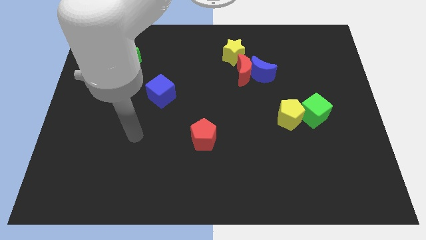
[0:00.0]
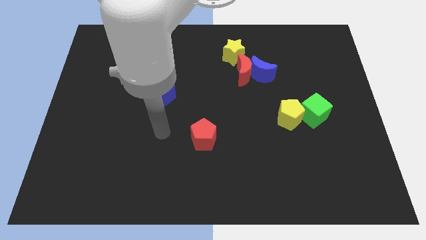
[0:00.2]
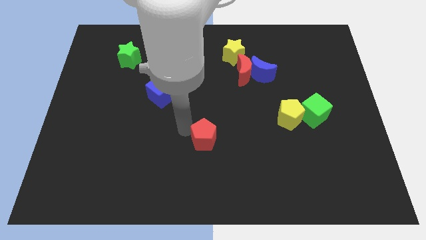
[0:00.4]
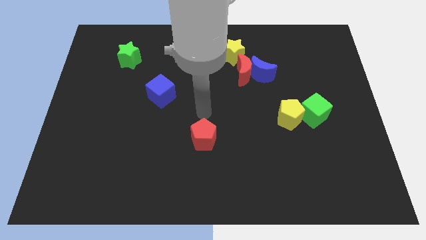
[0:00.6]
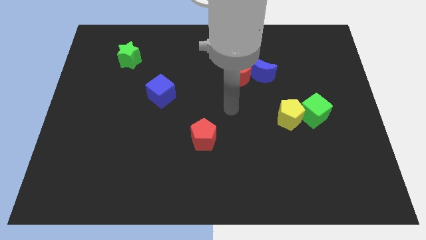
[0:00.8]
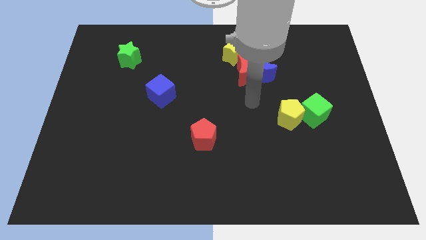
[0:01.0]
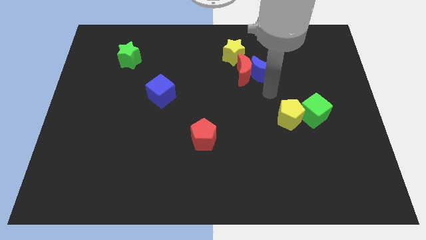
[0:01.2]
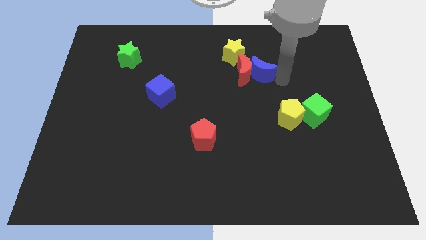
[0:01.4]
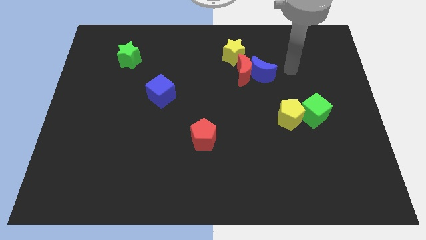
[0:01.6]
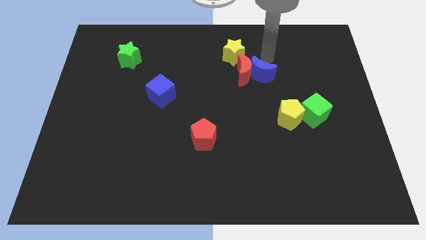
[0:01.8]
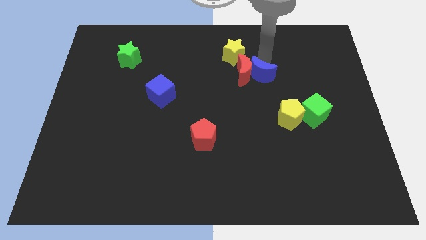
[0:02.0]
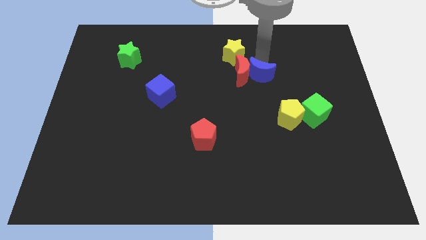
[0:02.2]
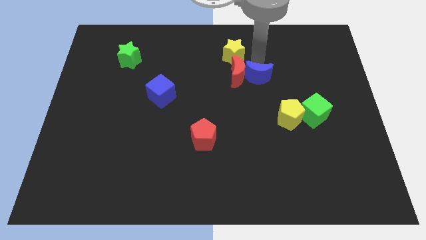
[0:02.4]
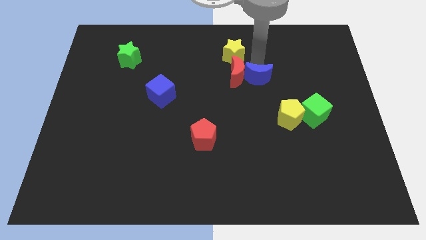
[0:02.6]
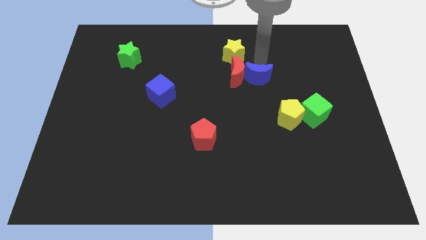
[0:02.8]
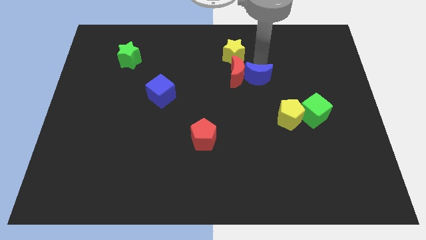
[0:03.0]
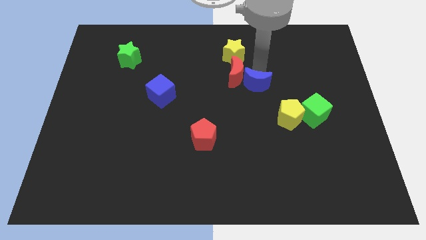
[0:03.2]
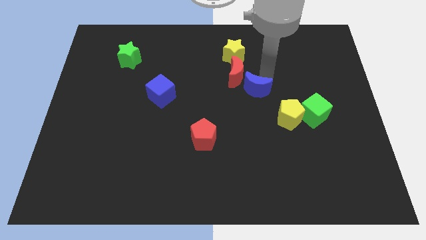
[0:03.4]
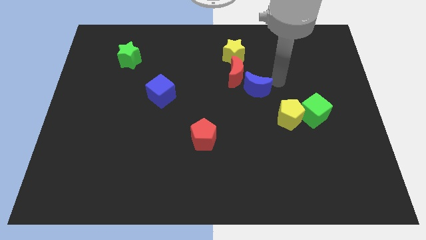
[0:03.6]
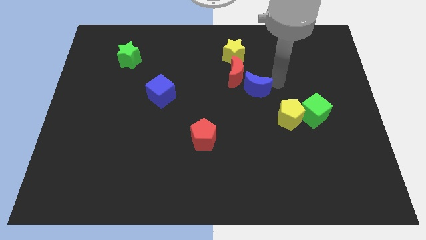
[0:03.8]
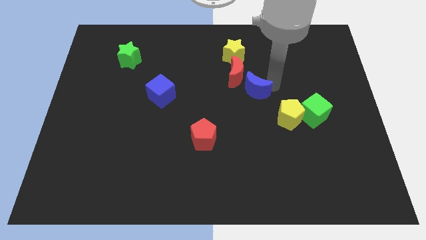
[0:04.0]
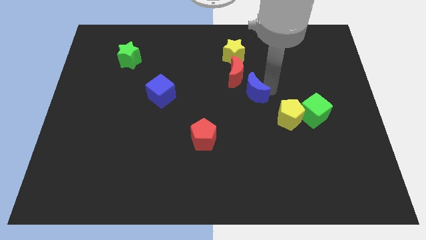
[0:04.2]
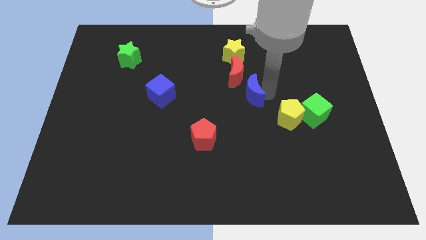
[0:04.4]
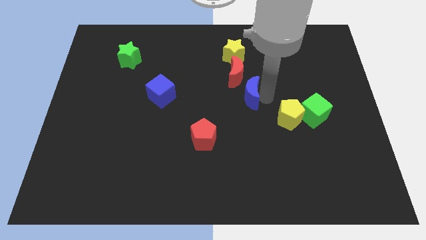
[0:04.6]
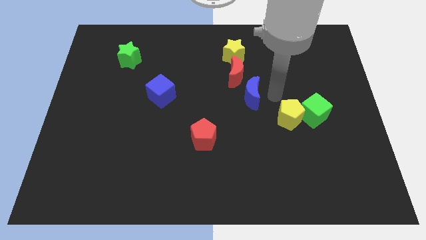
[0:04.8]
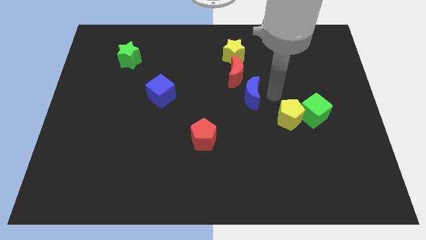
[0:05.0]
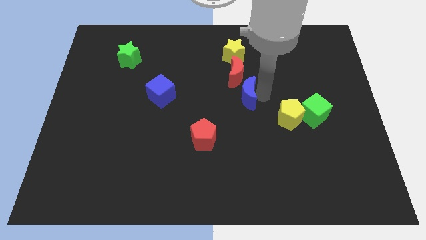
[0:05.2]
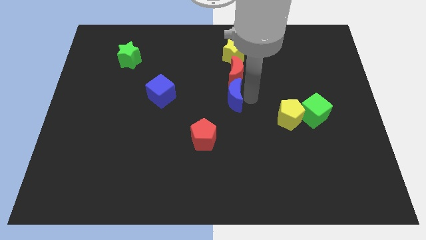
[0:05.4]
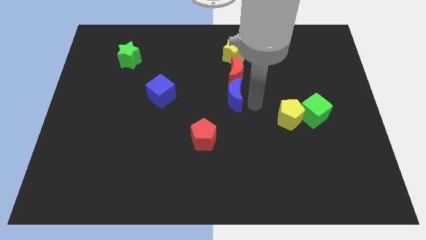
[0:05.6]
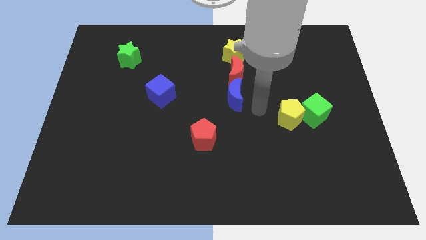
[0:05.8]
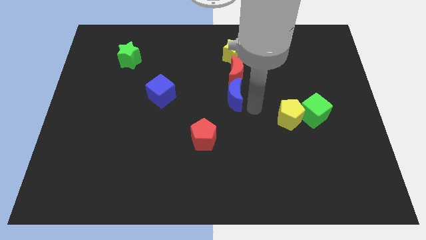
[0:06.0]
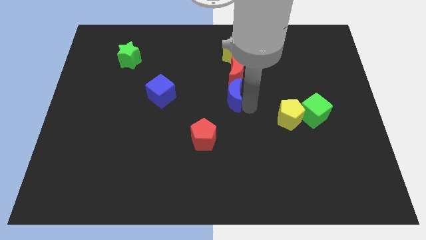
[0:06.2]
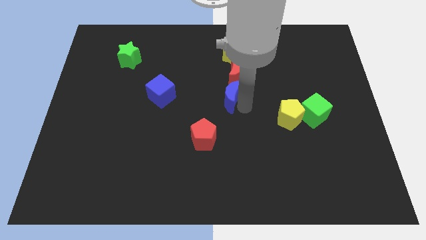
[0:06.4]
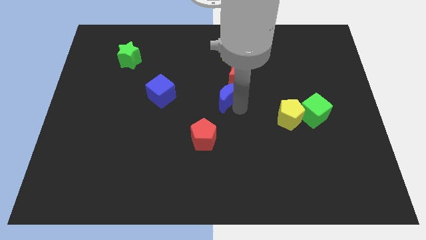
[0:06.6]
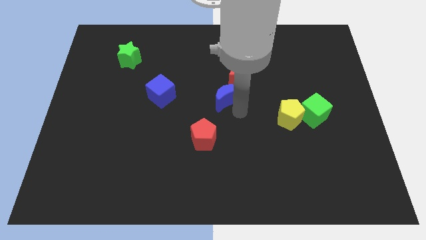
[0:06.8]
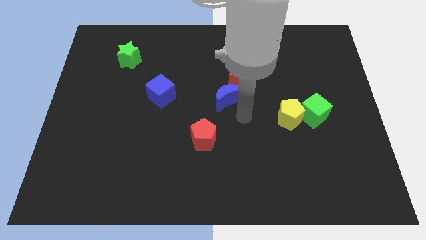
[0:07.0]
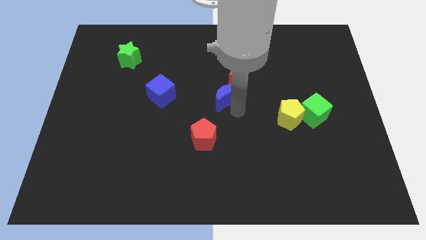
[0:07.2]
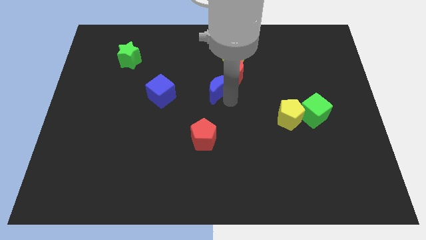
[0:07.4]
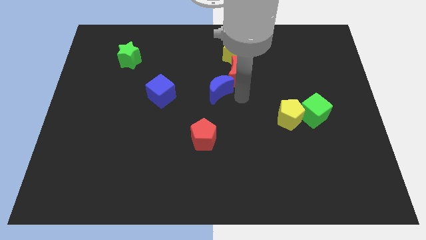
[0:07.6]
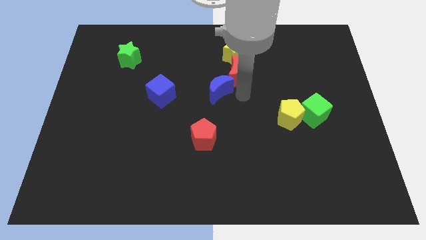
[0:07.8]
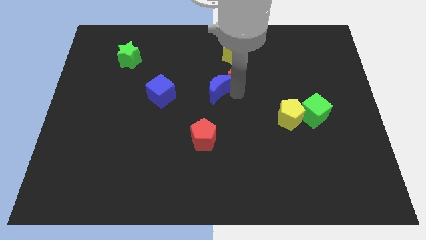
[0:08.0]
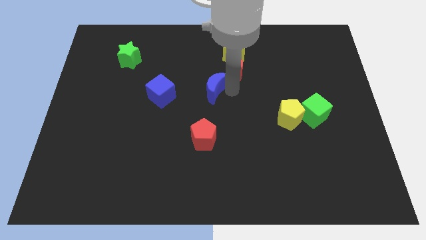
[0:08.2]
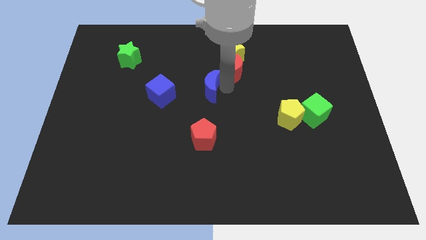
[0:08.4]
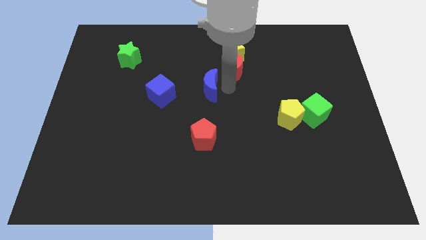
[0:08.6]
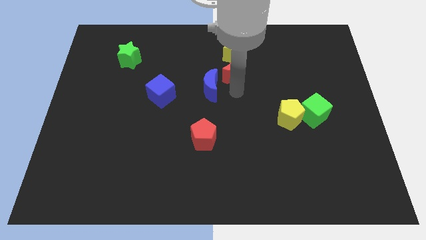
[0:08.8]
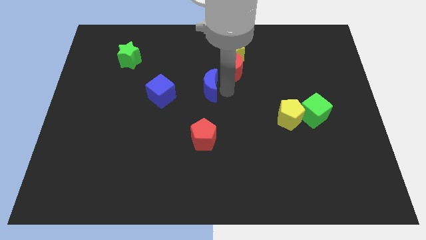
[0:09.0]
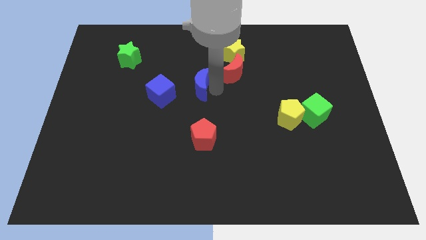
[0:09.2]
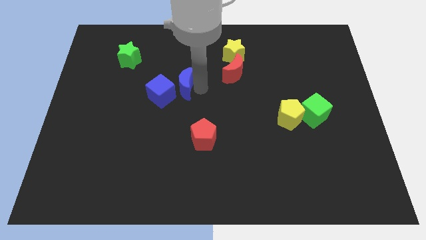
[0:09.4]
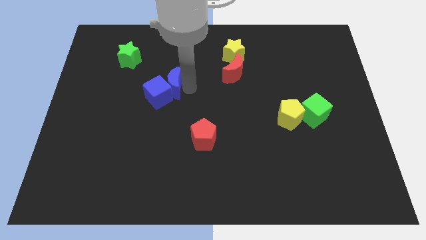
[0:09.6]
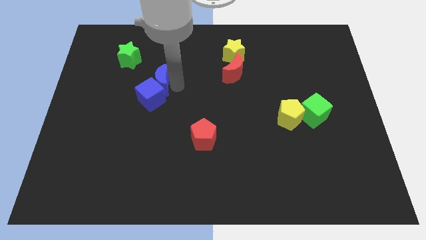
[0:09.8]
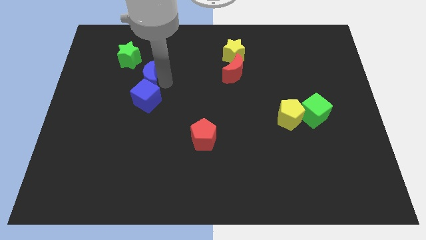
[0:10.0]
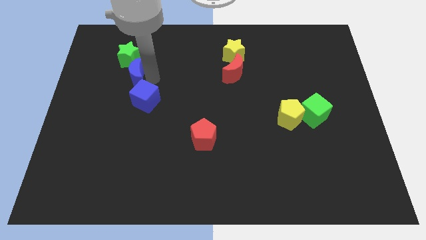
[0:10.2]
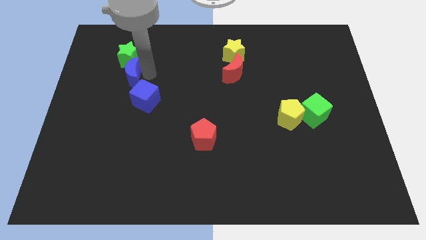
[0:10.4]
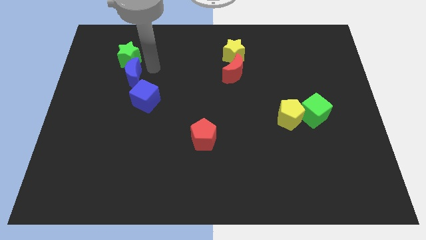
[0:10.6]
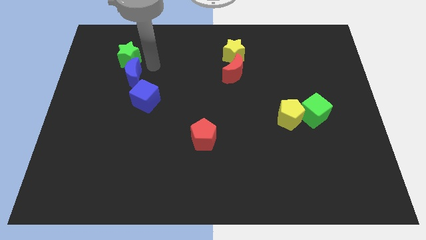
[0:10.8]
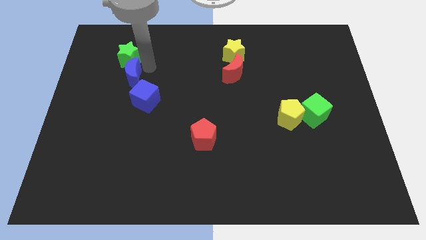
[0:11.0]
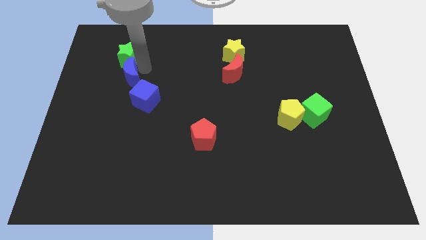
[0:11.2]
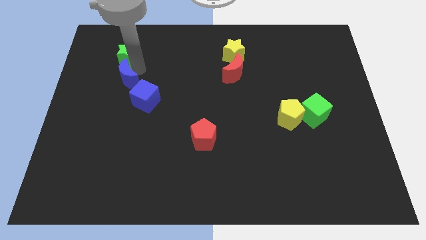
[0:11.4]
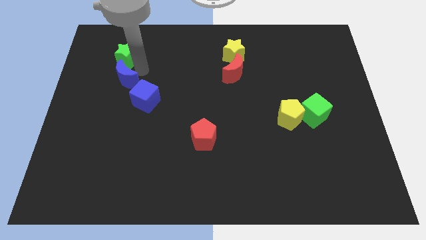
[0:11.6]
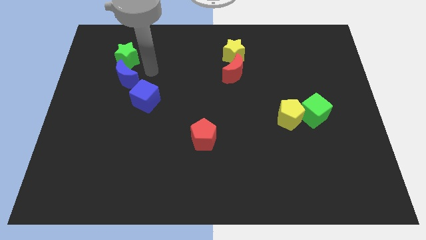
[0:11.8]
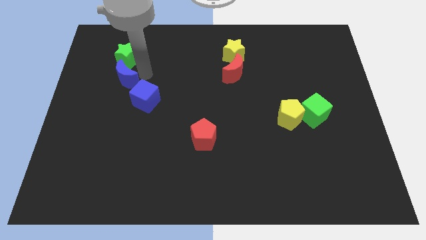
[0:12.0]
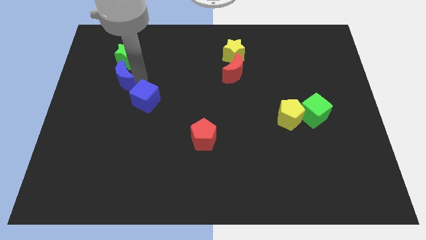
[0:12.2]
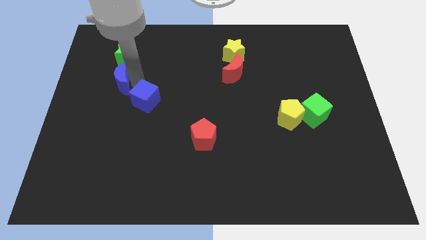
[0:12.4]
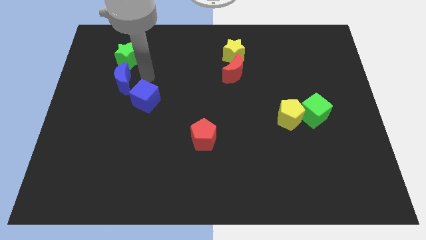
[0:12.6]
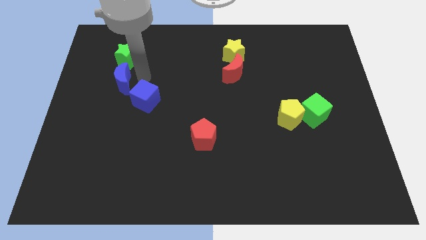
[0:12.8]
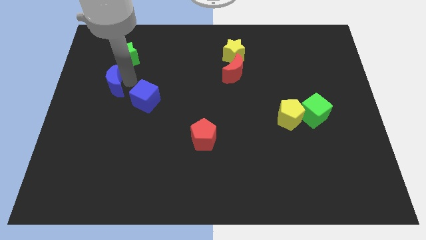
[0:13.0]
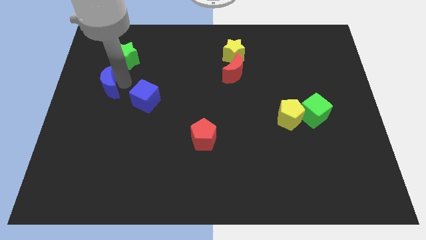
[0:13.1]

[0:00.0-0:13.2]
push the blue moon to the left side

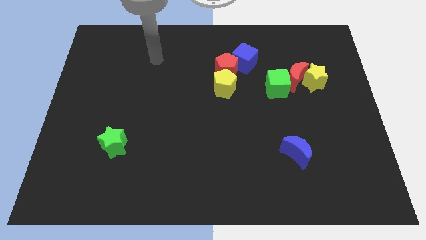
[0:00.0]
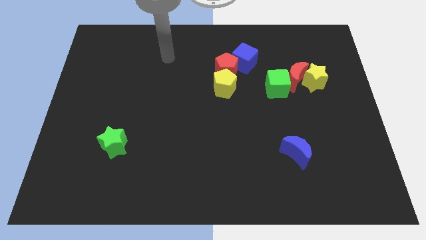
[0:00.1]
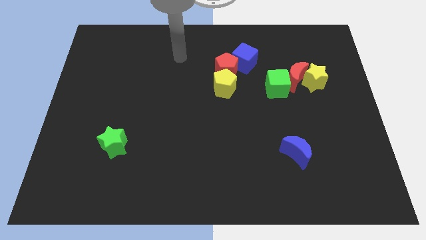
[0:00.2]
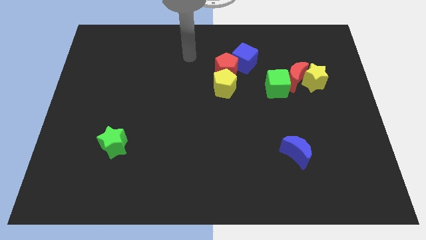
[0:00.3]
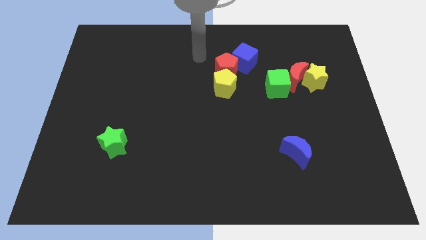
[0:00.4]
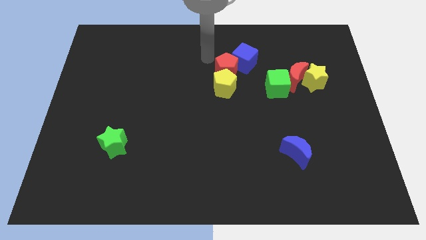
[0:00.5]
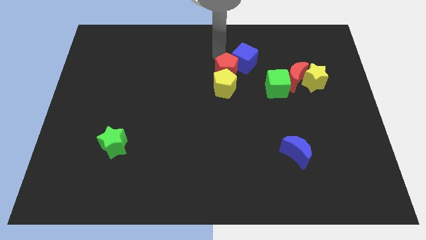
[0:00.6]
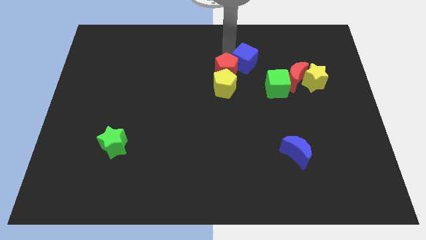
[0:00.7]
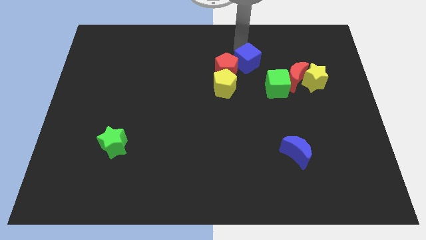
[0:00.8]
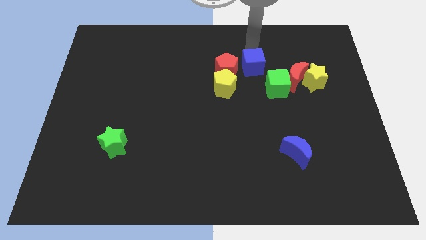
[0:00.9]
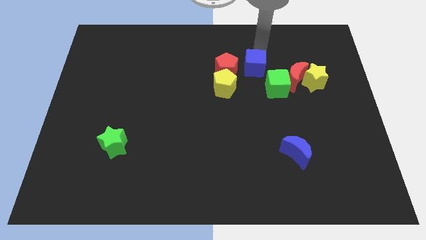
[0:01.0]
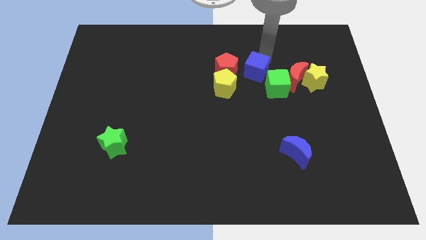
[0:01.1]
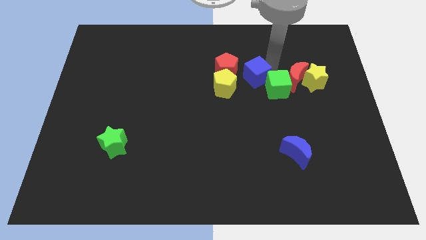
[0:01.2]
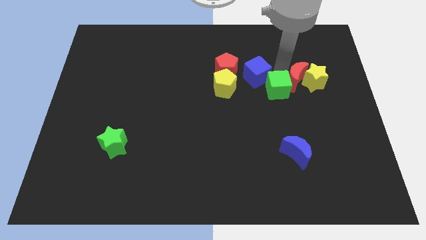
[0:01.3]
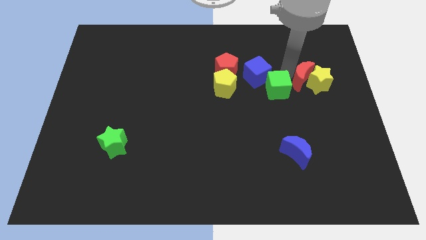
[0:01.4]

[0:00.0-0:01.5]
push the yellow star to the center right
